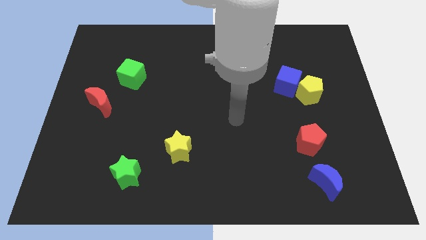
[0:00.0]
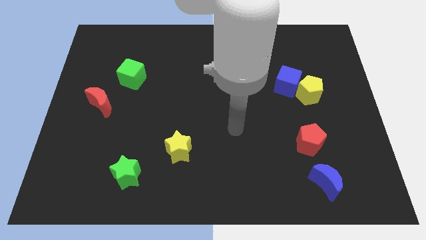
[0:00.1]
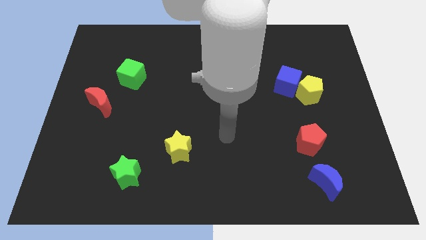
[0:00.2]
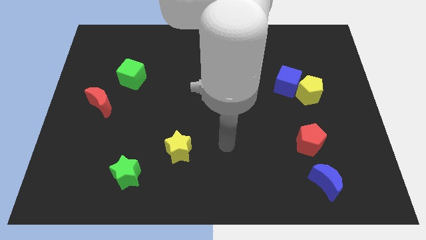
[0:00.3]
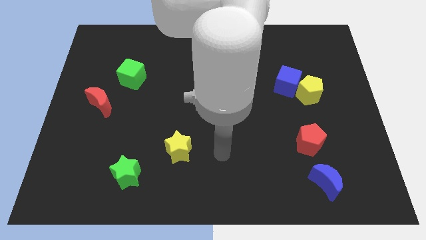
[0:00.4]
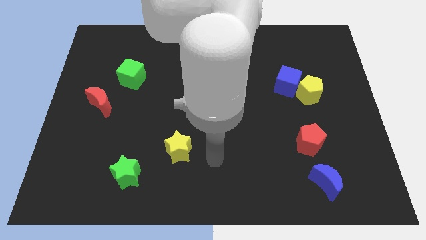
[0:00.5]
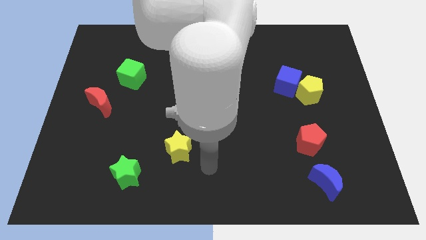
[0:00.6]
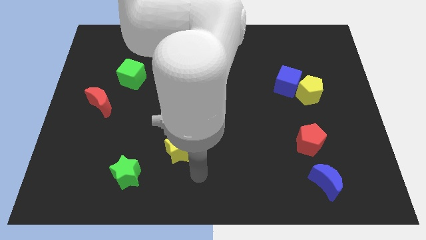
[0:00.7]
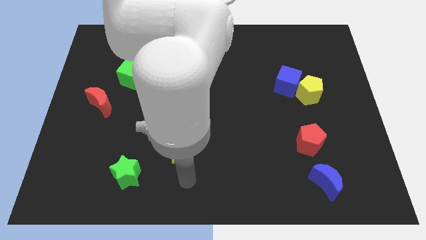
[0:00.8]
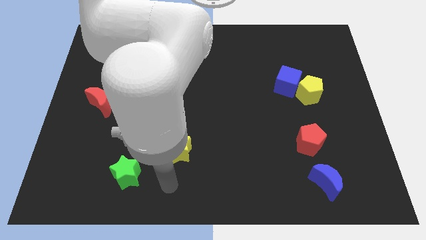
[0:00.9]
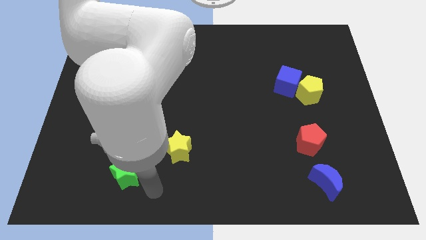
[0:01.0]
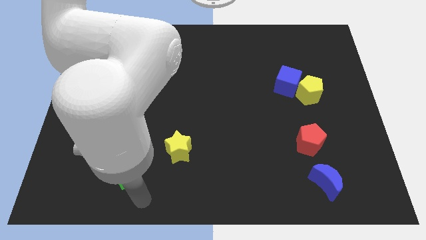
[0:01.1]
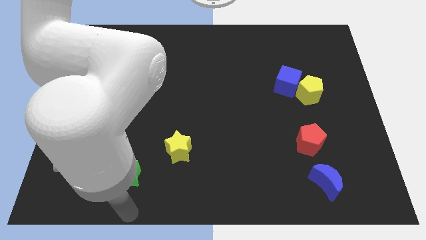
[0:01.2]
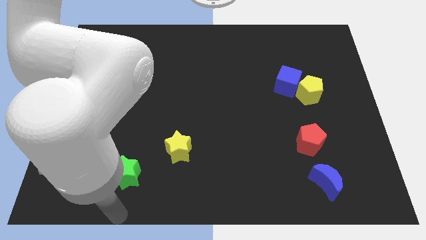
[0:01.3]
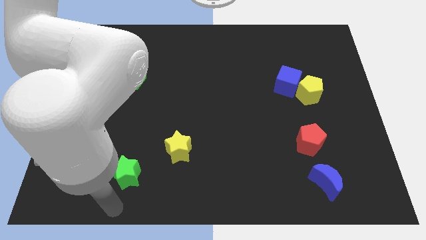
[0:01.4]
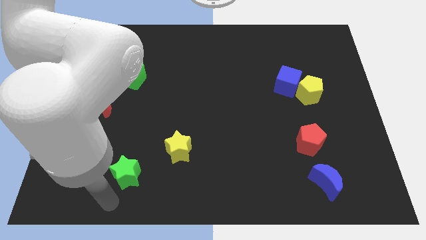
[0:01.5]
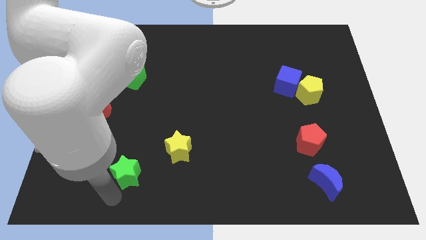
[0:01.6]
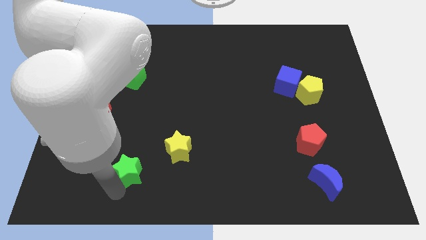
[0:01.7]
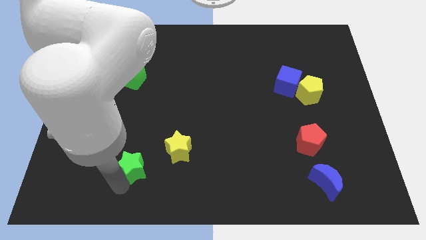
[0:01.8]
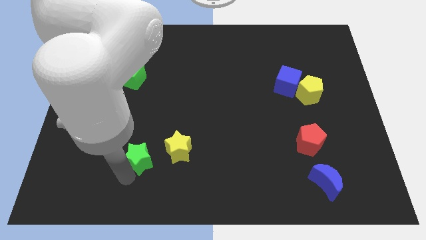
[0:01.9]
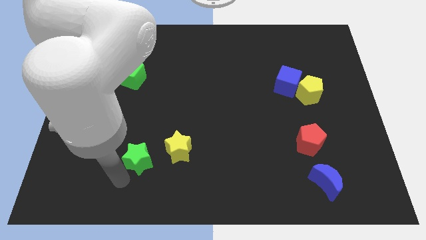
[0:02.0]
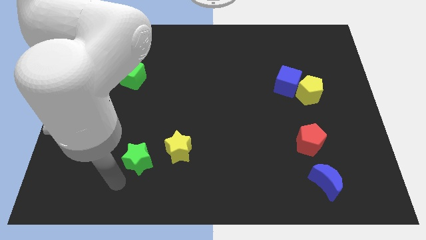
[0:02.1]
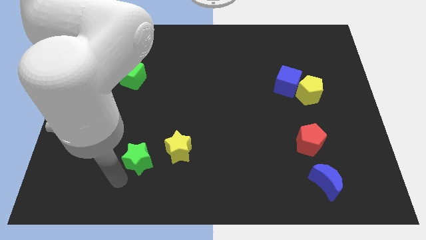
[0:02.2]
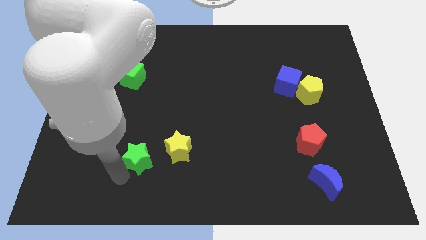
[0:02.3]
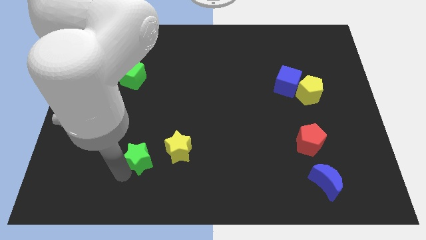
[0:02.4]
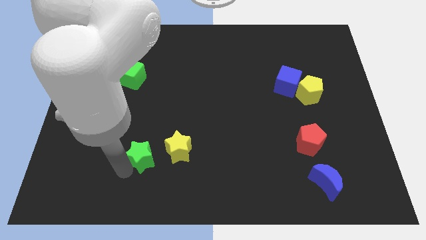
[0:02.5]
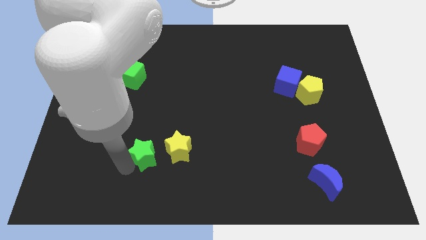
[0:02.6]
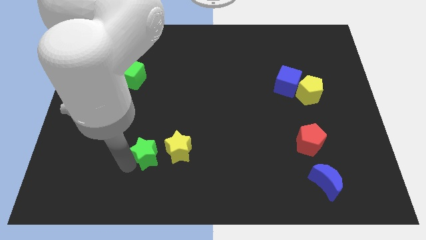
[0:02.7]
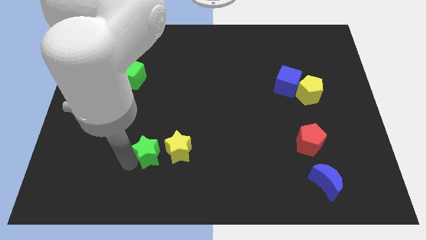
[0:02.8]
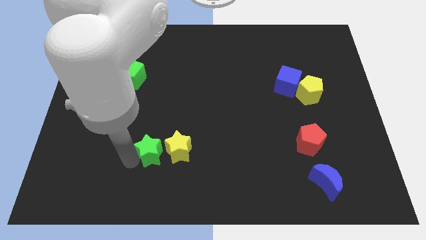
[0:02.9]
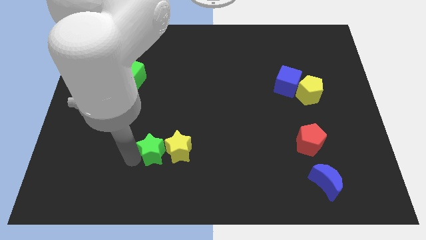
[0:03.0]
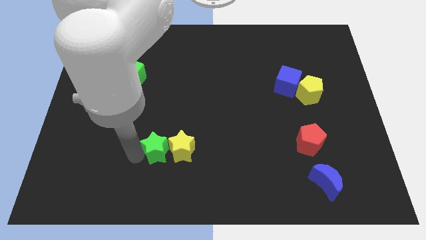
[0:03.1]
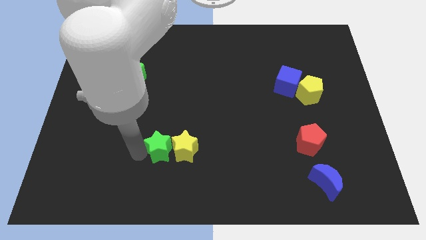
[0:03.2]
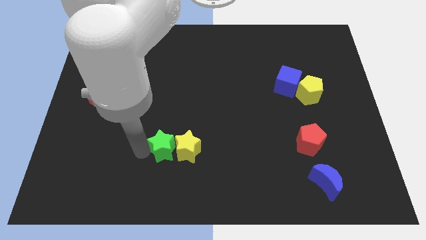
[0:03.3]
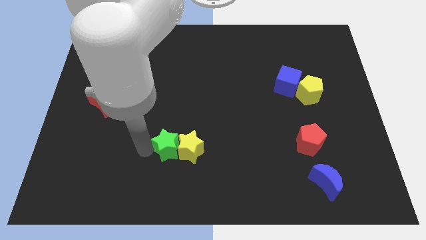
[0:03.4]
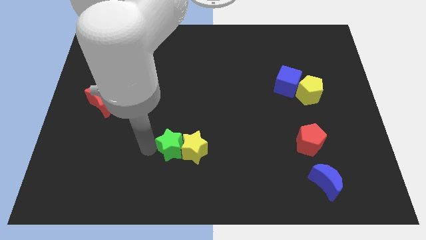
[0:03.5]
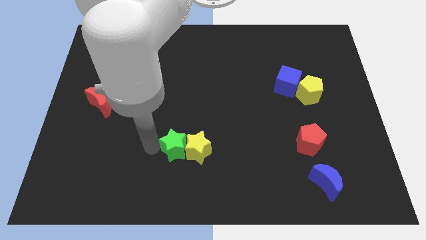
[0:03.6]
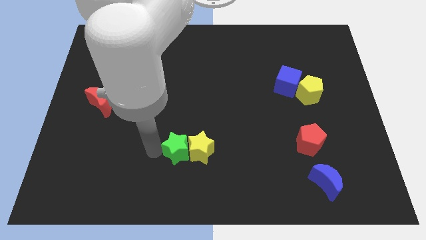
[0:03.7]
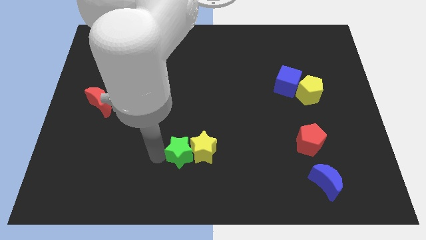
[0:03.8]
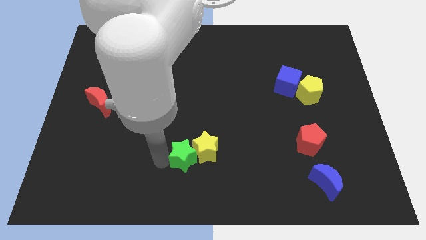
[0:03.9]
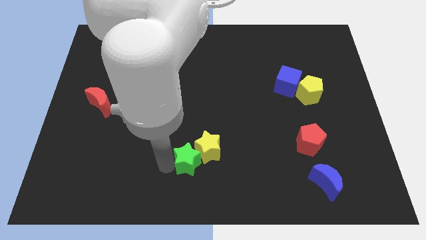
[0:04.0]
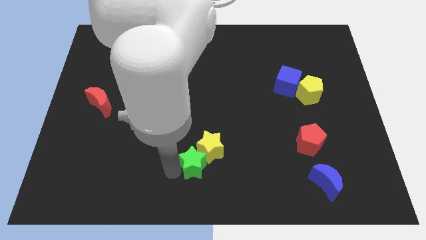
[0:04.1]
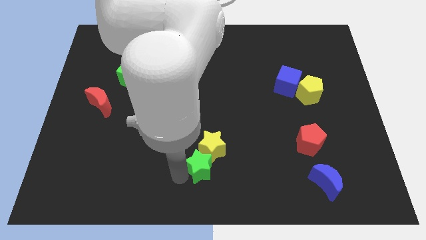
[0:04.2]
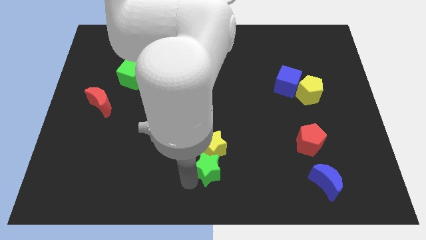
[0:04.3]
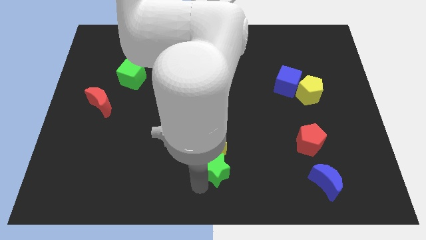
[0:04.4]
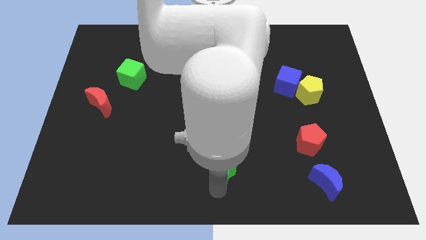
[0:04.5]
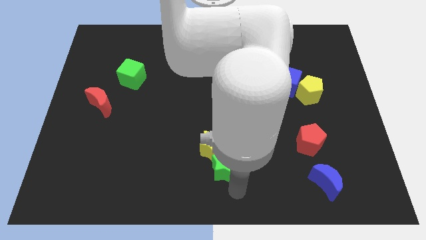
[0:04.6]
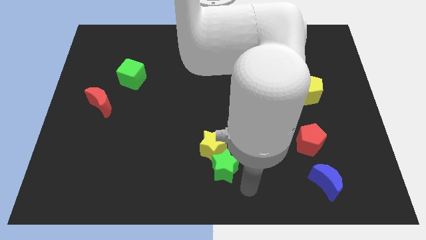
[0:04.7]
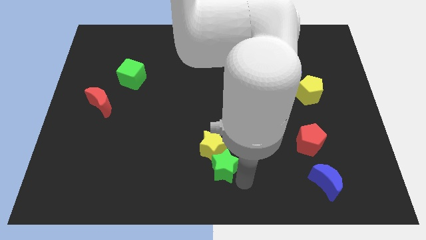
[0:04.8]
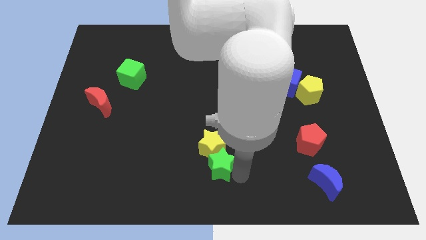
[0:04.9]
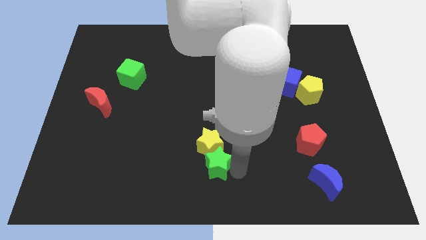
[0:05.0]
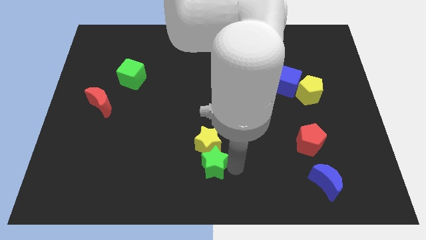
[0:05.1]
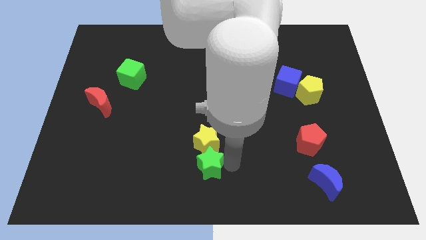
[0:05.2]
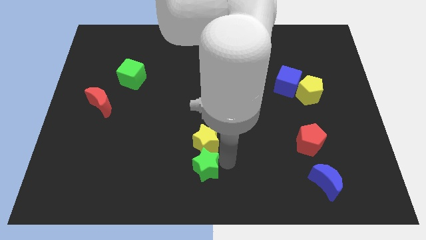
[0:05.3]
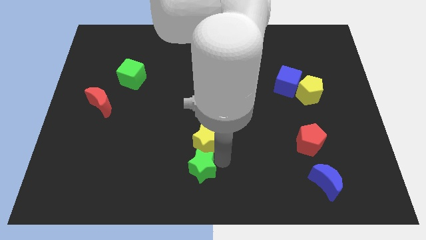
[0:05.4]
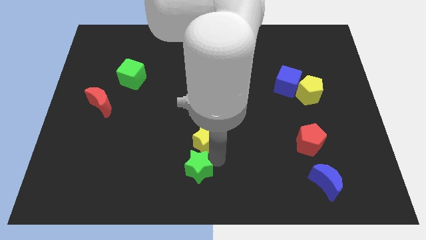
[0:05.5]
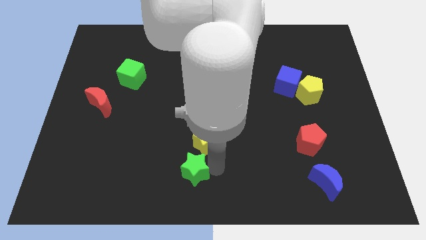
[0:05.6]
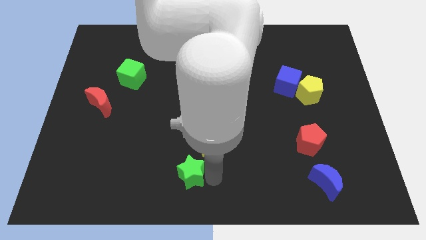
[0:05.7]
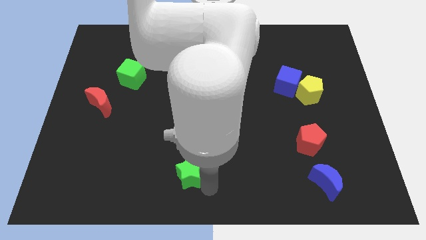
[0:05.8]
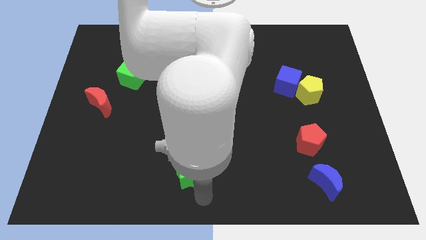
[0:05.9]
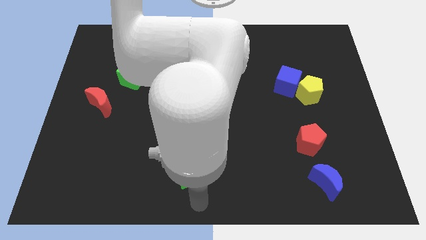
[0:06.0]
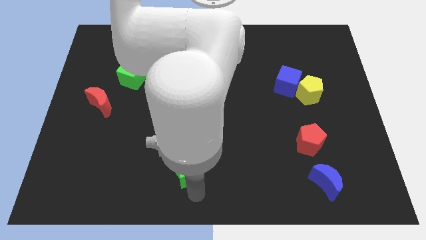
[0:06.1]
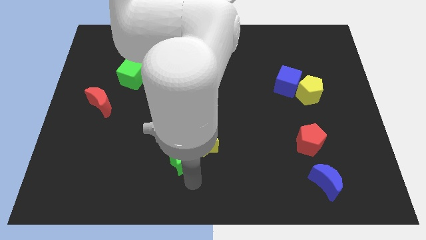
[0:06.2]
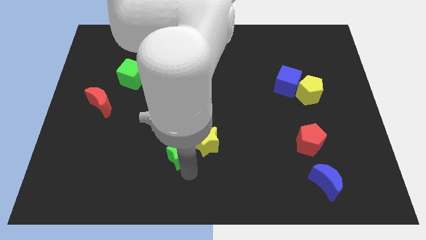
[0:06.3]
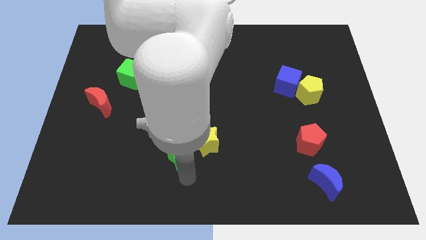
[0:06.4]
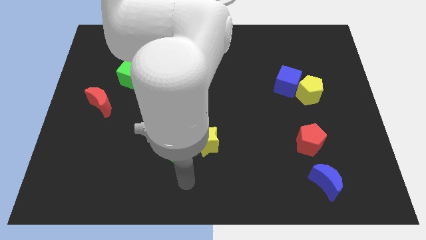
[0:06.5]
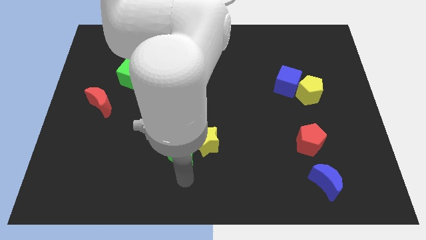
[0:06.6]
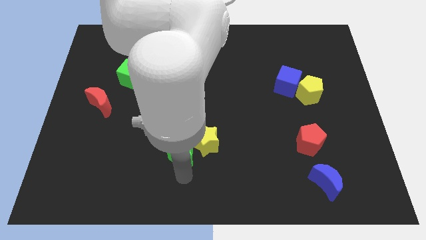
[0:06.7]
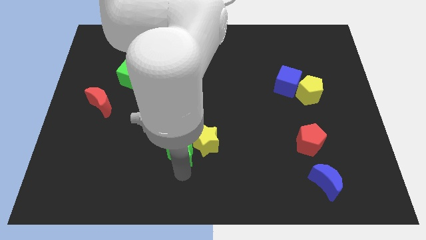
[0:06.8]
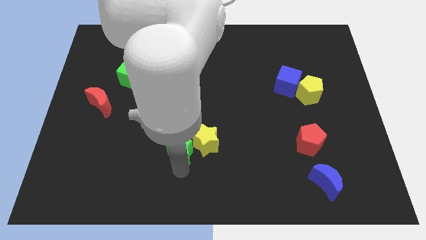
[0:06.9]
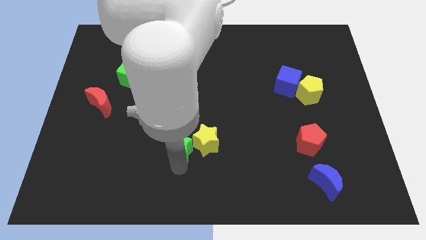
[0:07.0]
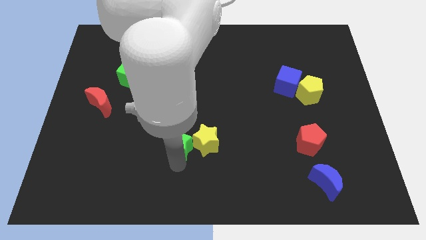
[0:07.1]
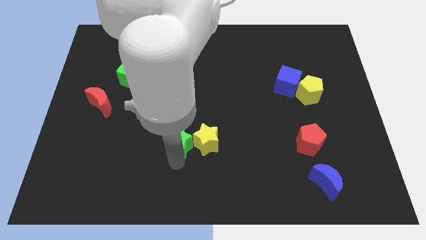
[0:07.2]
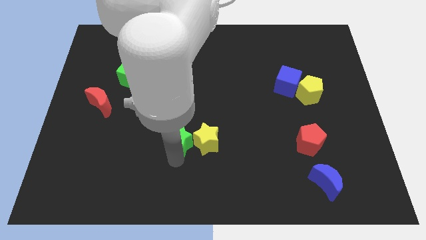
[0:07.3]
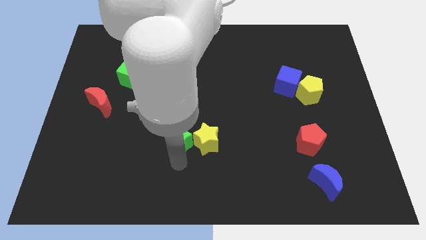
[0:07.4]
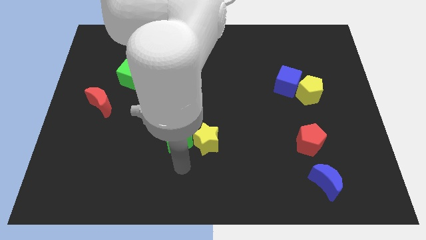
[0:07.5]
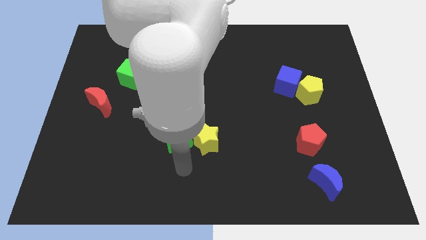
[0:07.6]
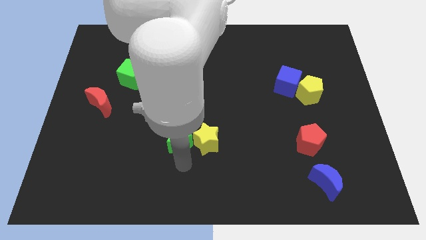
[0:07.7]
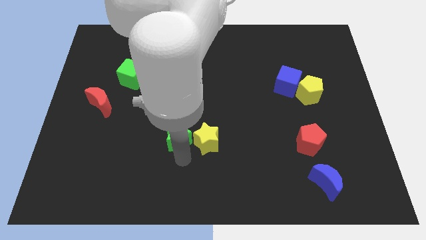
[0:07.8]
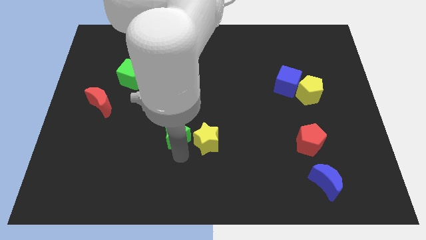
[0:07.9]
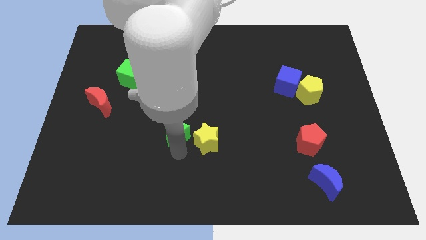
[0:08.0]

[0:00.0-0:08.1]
push the green star to the middle
